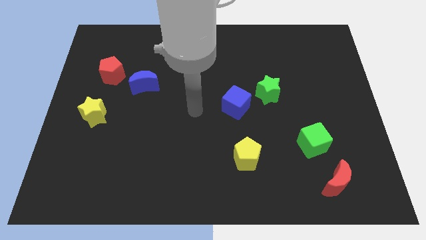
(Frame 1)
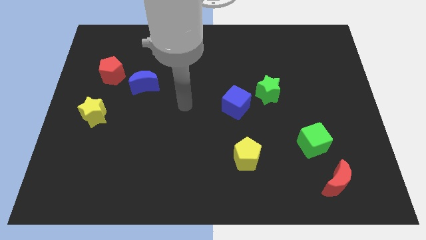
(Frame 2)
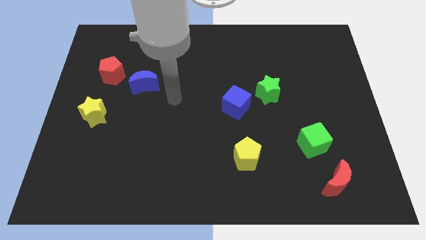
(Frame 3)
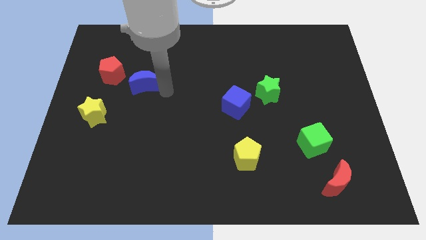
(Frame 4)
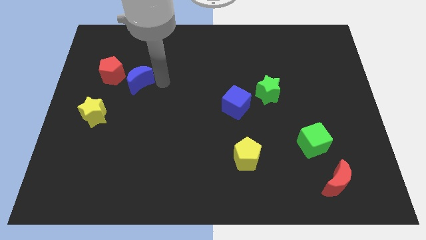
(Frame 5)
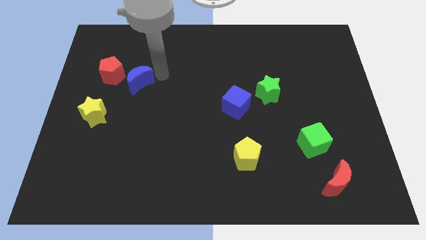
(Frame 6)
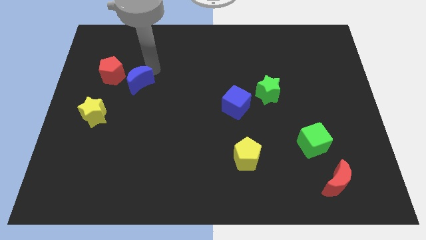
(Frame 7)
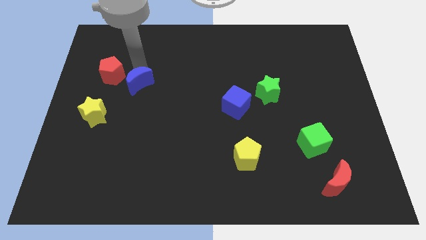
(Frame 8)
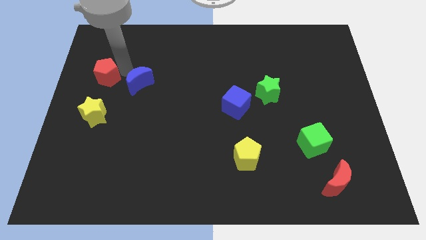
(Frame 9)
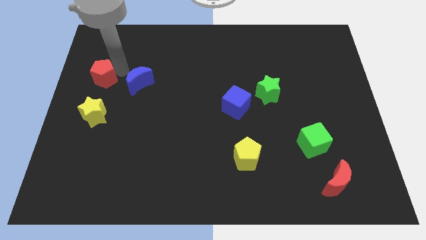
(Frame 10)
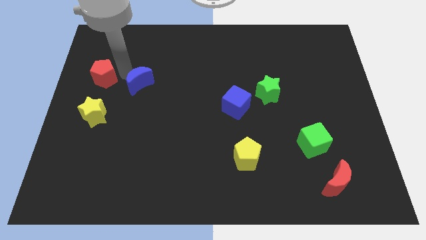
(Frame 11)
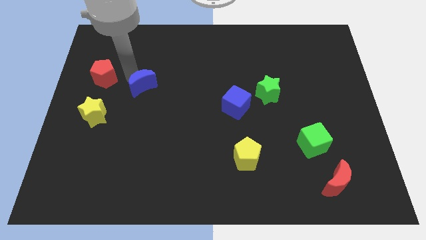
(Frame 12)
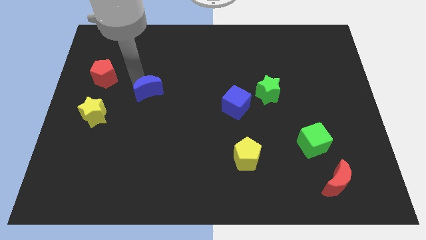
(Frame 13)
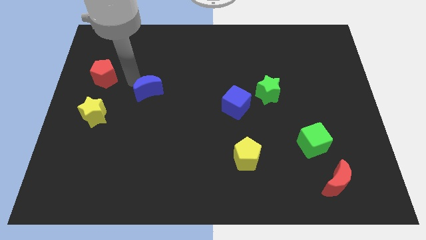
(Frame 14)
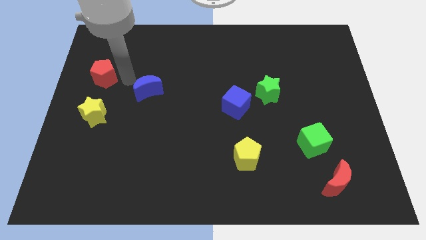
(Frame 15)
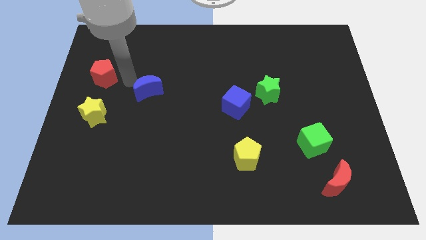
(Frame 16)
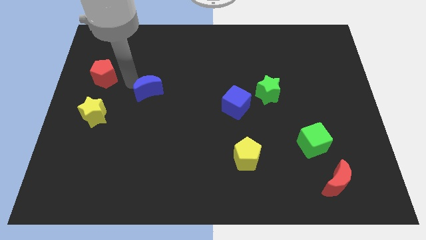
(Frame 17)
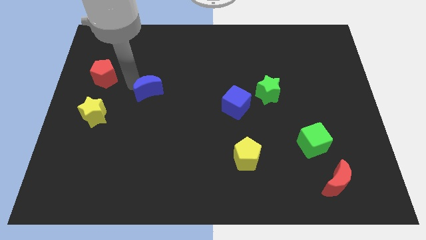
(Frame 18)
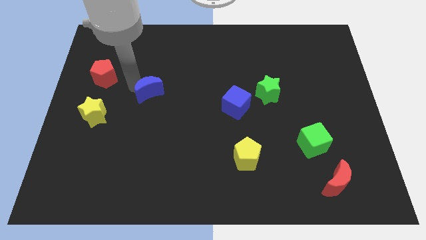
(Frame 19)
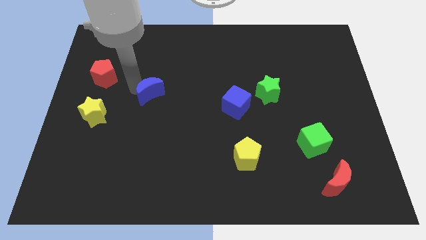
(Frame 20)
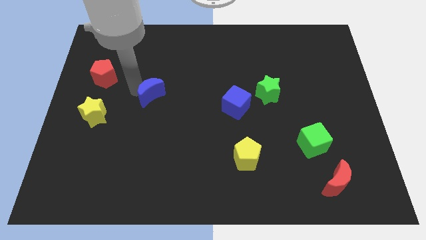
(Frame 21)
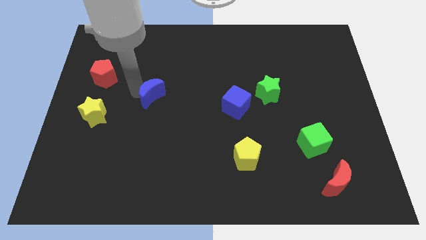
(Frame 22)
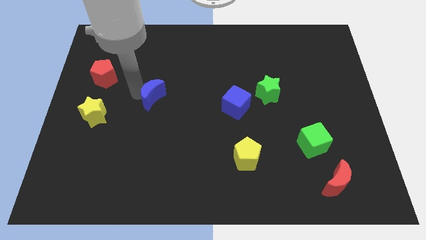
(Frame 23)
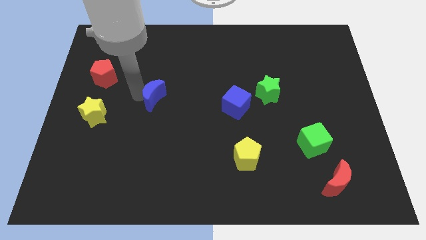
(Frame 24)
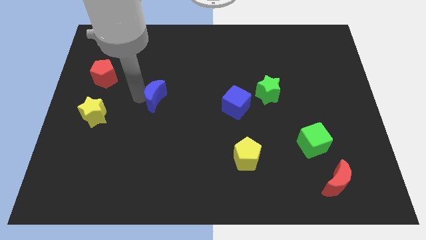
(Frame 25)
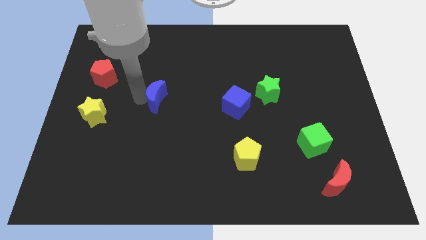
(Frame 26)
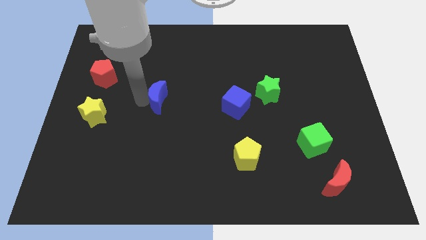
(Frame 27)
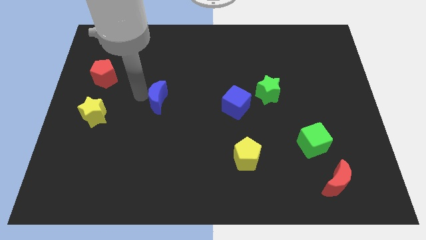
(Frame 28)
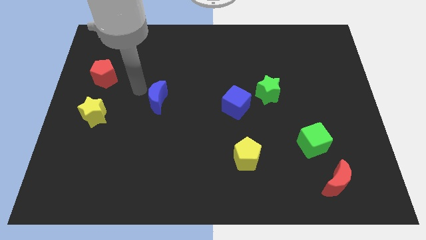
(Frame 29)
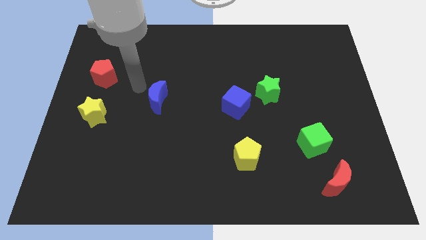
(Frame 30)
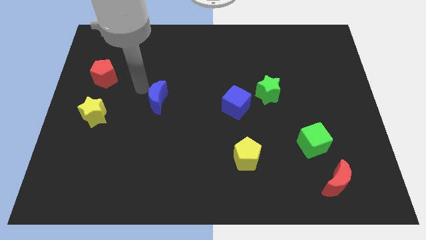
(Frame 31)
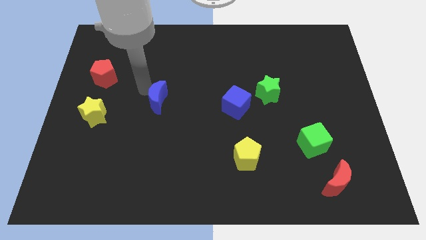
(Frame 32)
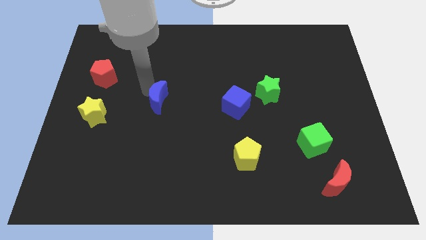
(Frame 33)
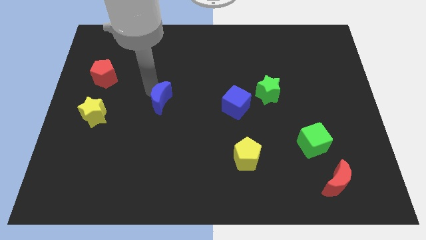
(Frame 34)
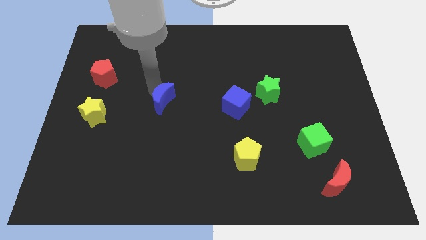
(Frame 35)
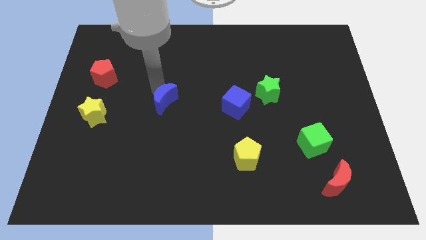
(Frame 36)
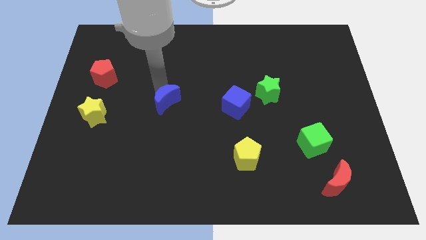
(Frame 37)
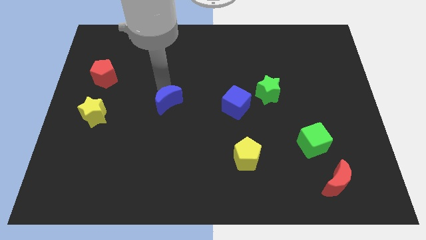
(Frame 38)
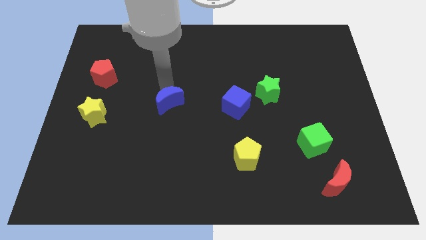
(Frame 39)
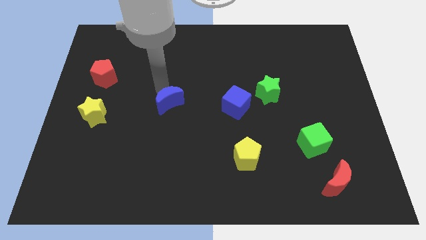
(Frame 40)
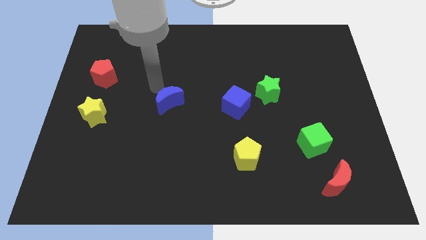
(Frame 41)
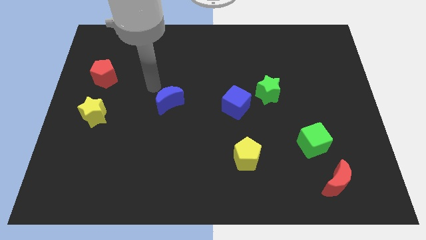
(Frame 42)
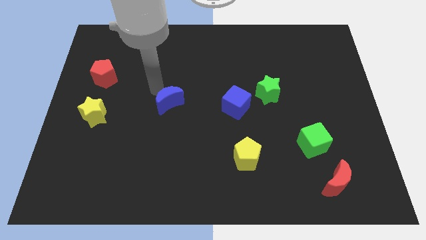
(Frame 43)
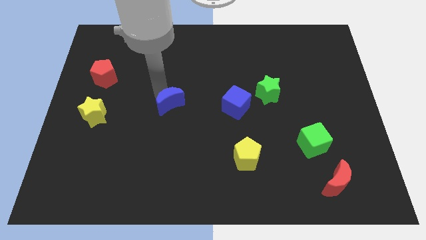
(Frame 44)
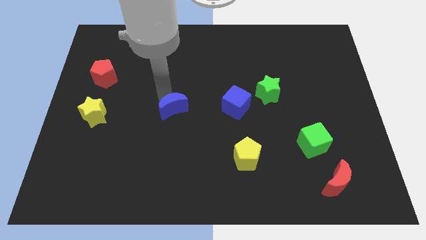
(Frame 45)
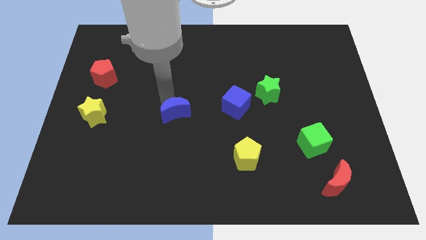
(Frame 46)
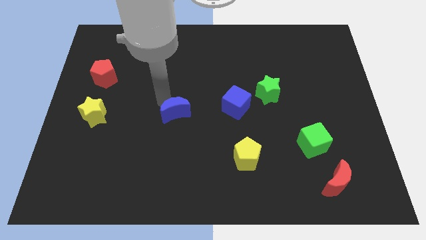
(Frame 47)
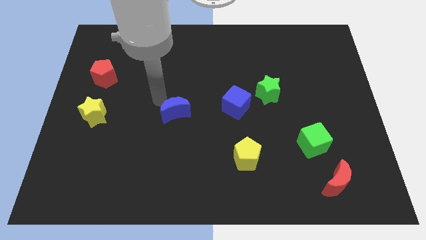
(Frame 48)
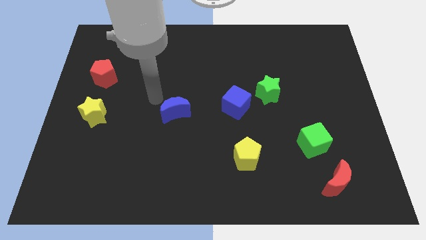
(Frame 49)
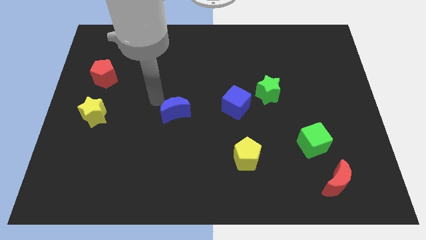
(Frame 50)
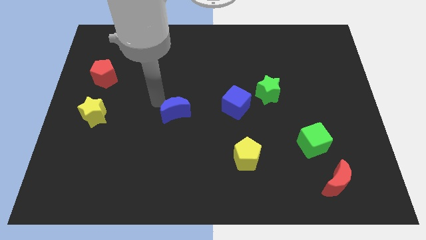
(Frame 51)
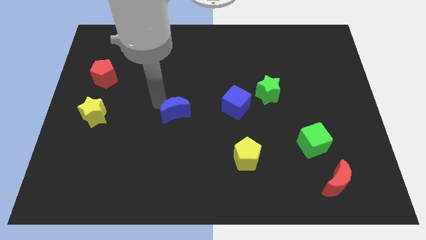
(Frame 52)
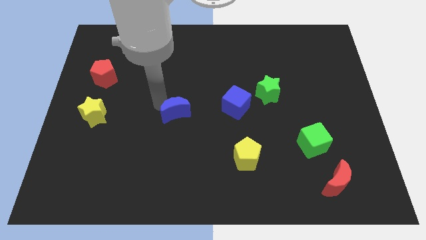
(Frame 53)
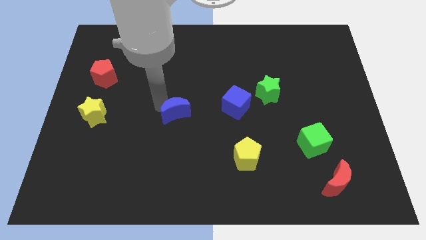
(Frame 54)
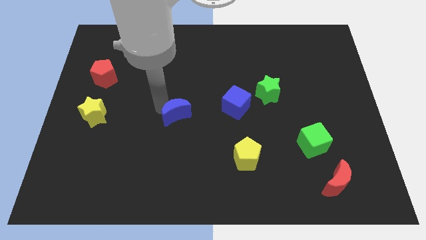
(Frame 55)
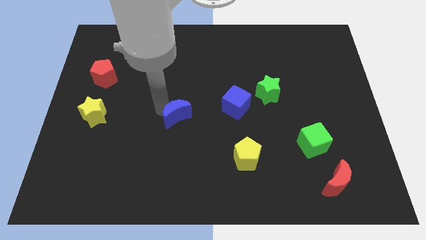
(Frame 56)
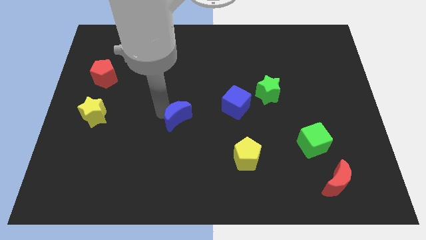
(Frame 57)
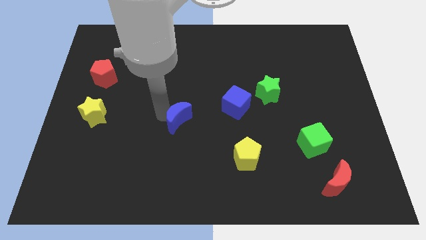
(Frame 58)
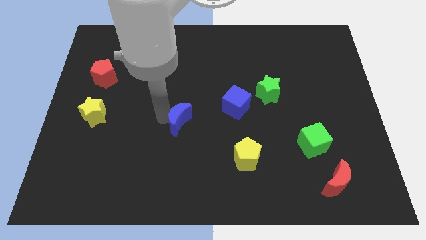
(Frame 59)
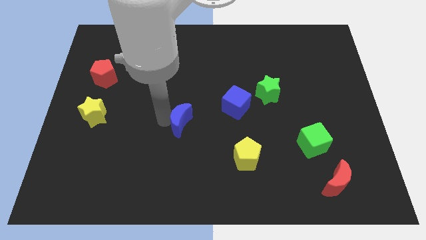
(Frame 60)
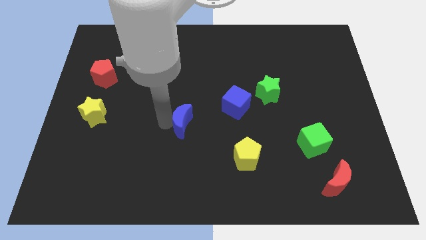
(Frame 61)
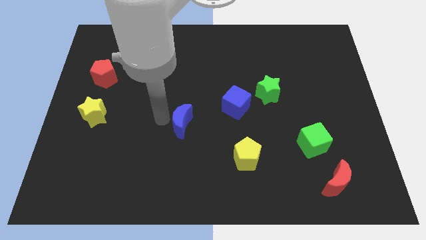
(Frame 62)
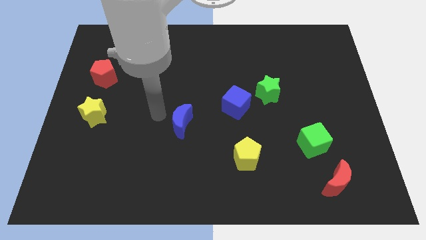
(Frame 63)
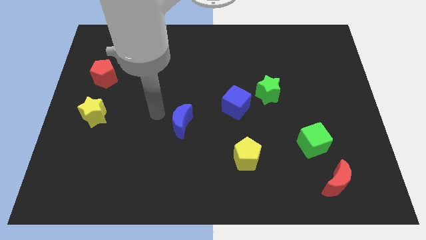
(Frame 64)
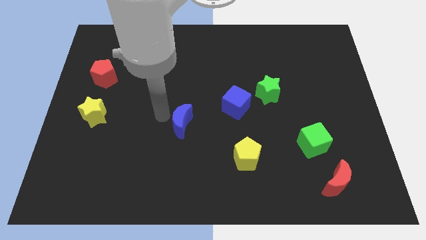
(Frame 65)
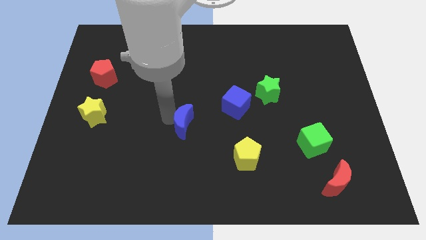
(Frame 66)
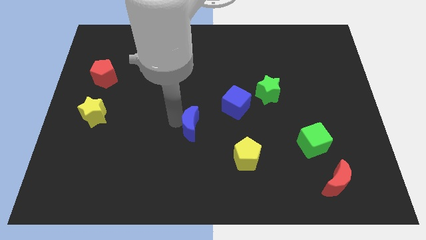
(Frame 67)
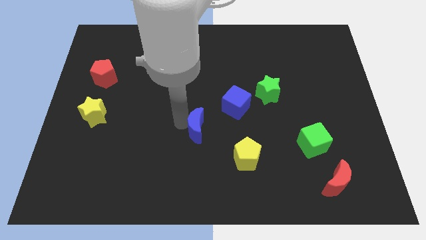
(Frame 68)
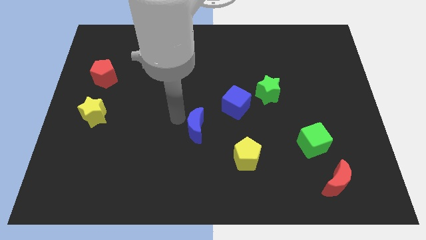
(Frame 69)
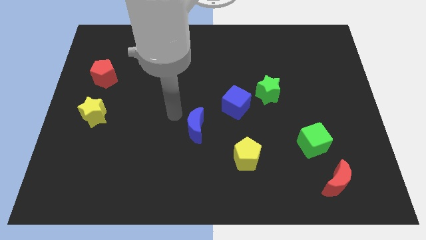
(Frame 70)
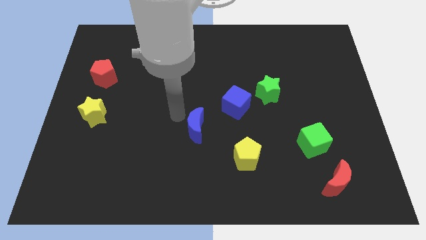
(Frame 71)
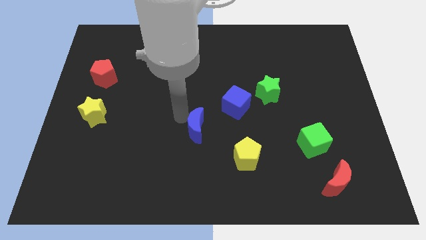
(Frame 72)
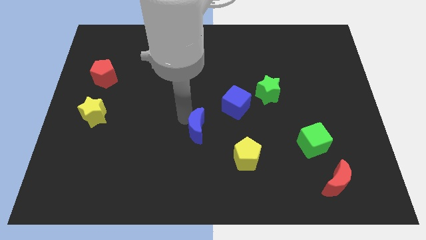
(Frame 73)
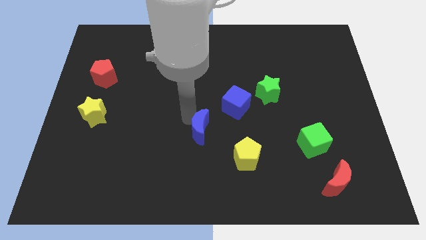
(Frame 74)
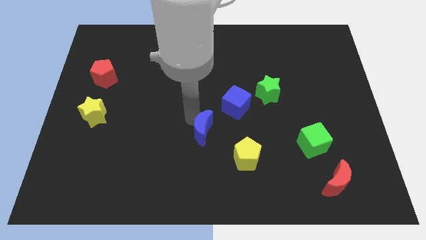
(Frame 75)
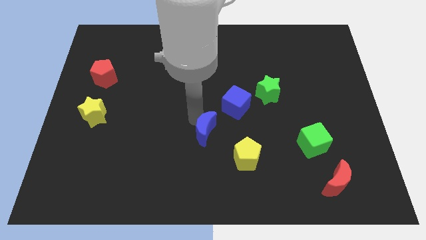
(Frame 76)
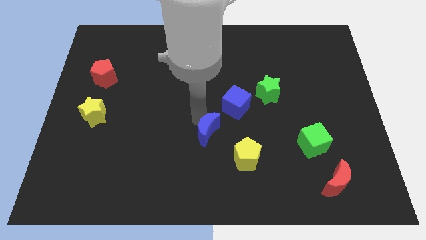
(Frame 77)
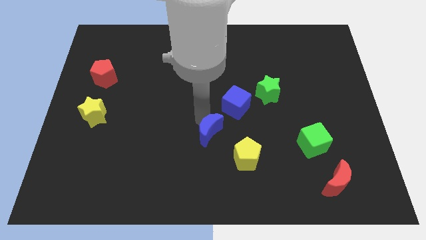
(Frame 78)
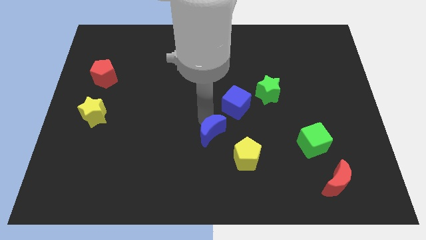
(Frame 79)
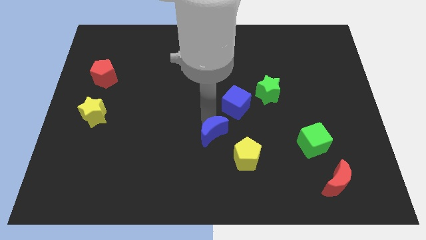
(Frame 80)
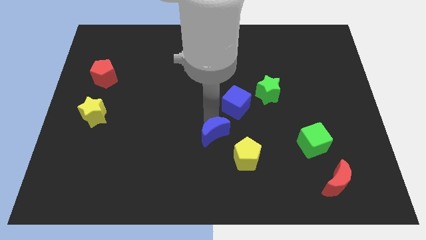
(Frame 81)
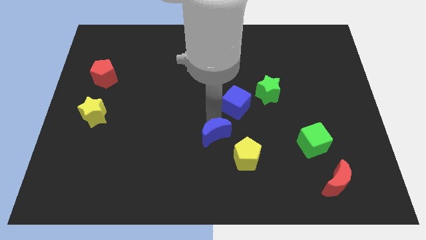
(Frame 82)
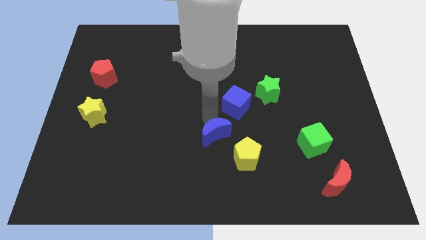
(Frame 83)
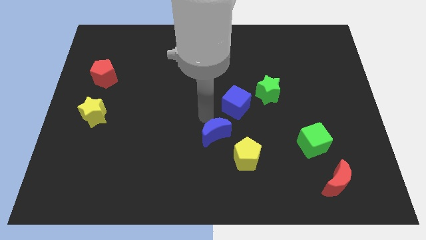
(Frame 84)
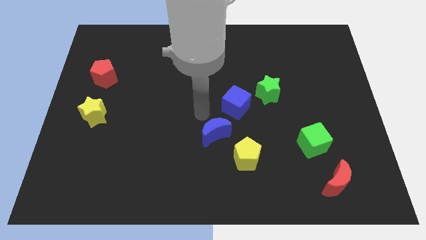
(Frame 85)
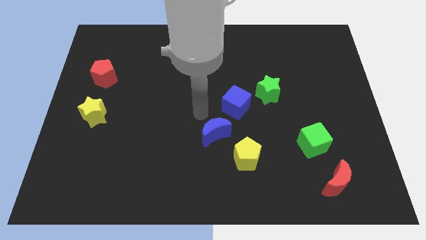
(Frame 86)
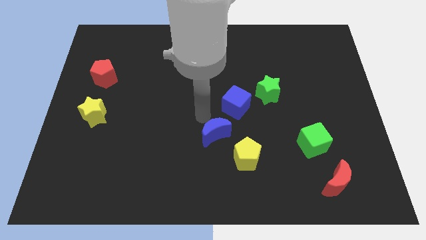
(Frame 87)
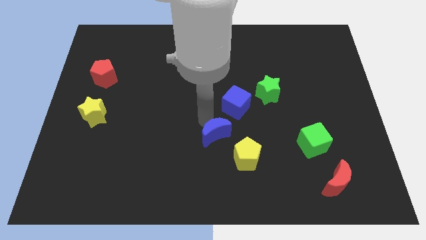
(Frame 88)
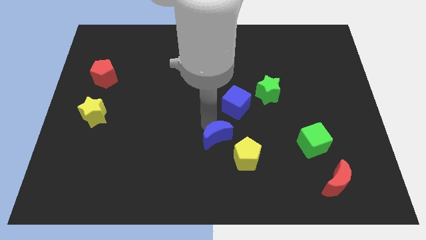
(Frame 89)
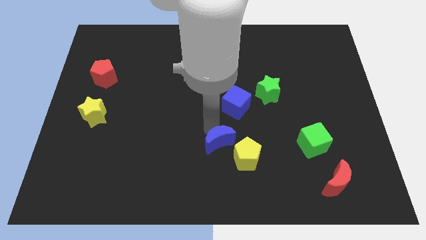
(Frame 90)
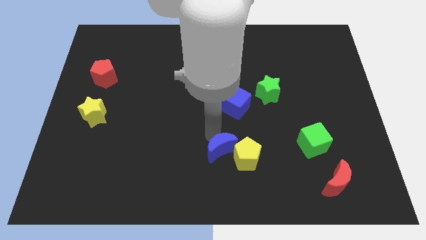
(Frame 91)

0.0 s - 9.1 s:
slide the blue moon to the yellow pentagon
